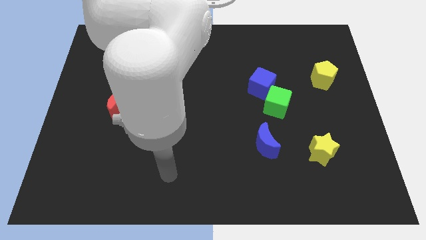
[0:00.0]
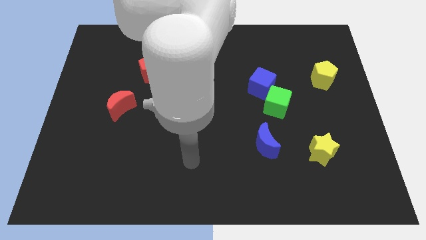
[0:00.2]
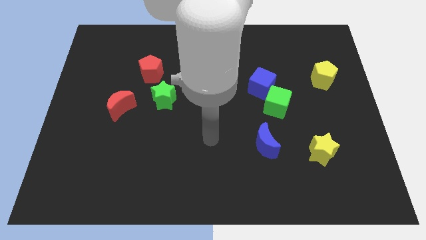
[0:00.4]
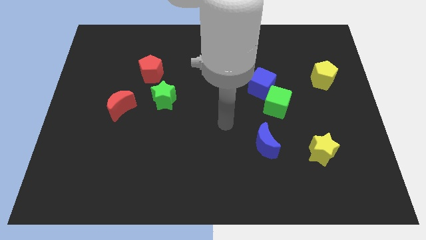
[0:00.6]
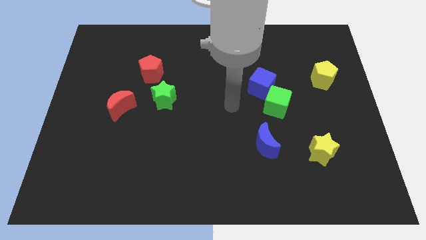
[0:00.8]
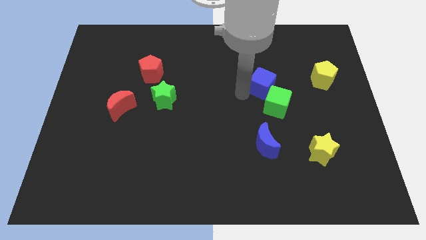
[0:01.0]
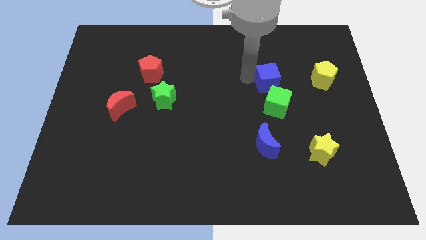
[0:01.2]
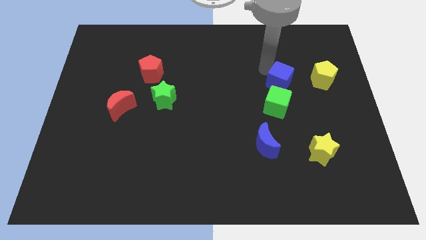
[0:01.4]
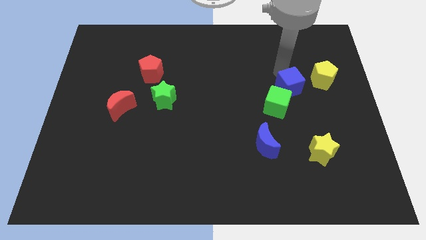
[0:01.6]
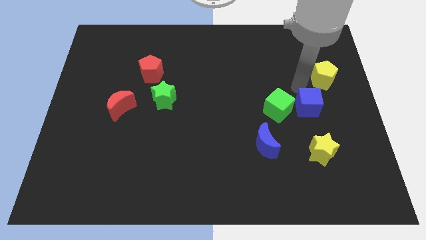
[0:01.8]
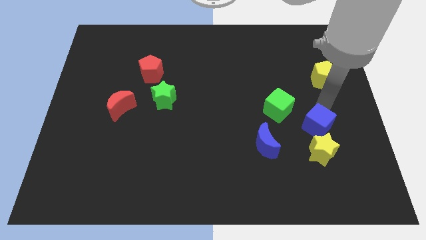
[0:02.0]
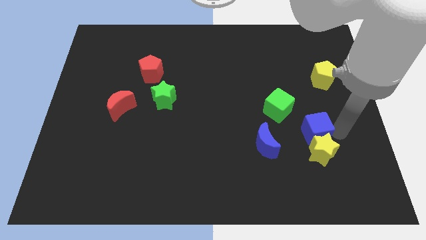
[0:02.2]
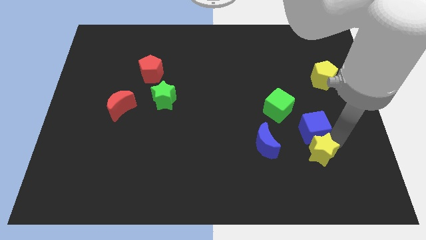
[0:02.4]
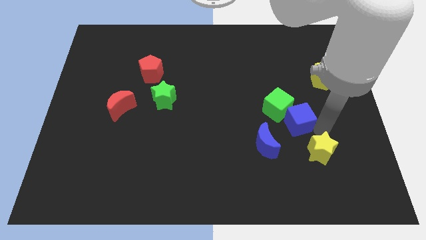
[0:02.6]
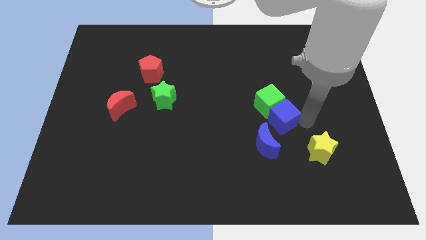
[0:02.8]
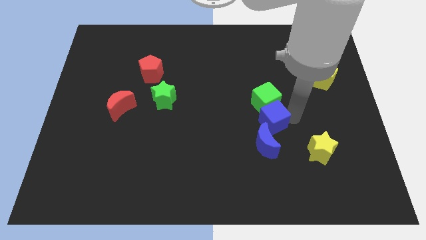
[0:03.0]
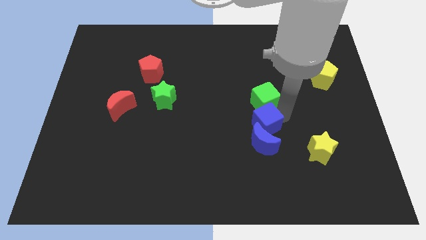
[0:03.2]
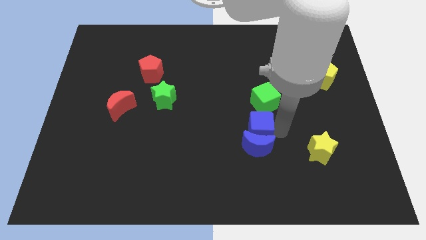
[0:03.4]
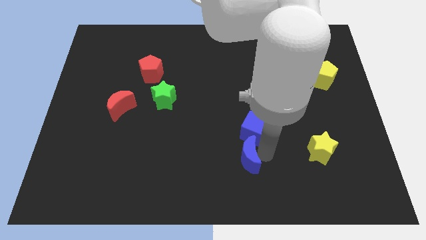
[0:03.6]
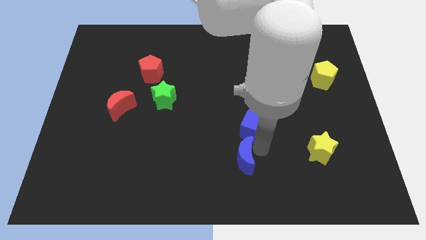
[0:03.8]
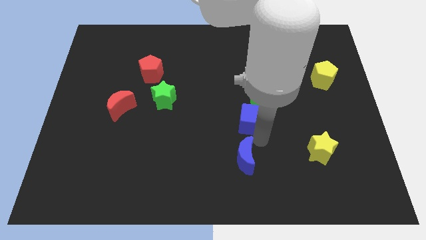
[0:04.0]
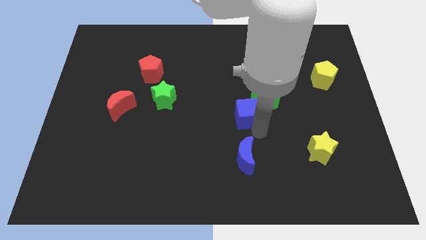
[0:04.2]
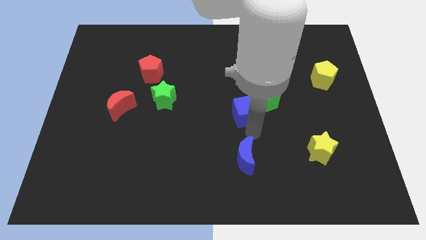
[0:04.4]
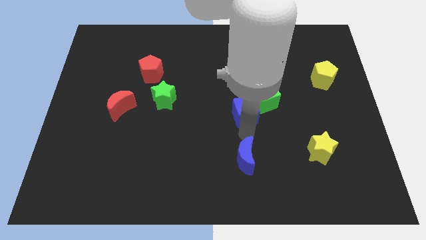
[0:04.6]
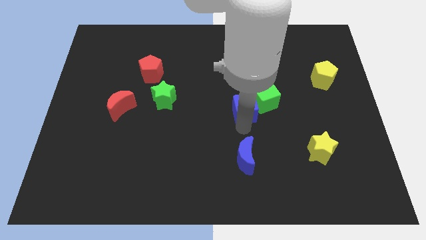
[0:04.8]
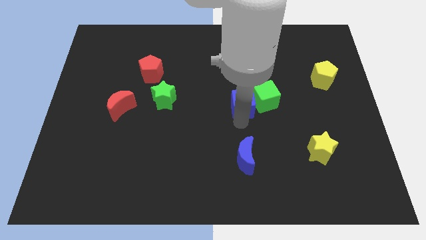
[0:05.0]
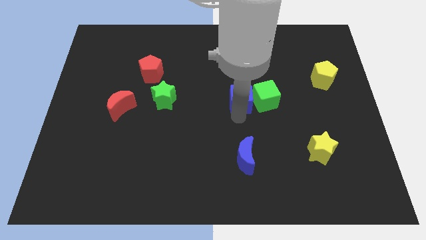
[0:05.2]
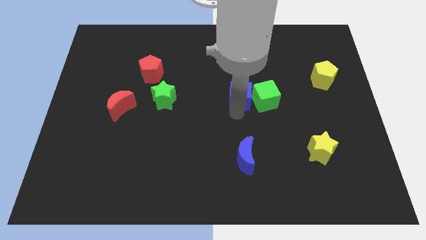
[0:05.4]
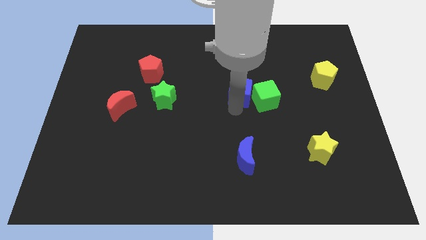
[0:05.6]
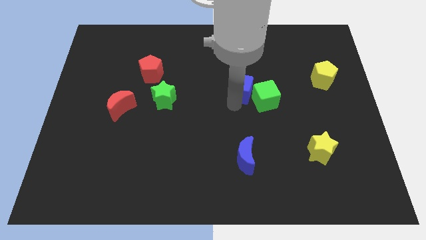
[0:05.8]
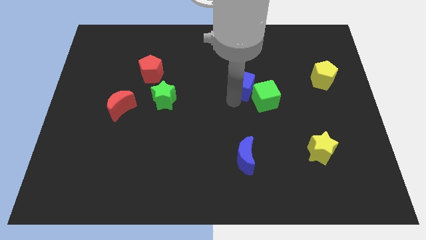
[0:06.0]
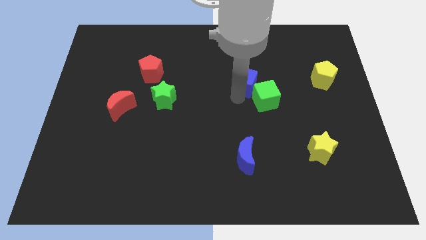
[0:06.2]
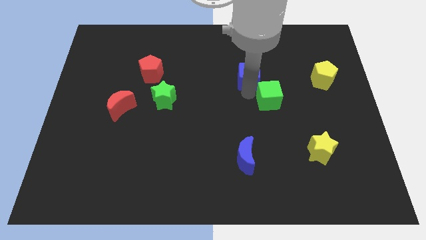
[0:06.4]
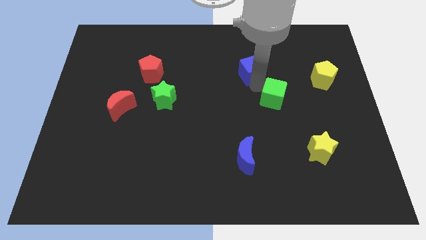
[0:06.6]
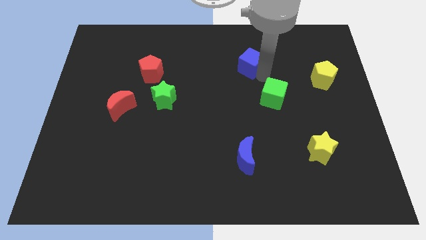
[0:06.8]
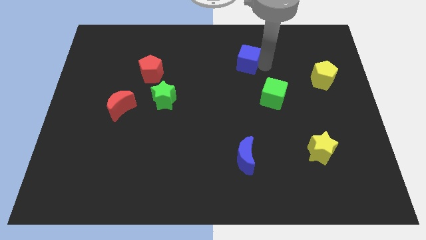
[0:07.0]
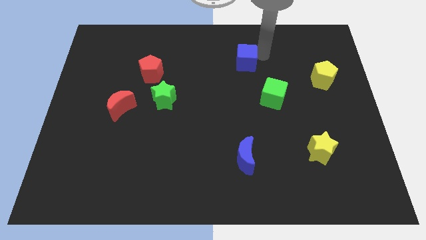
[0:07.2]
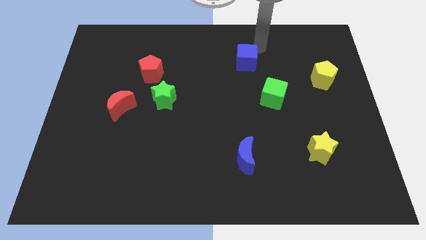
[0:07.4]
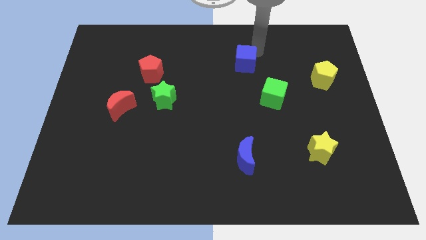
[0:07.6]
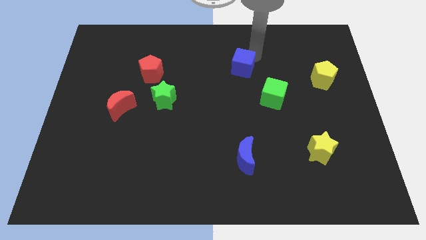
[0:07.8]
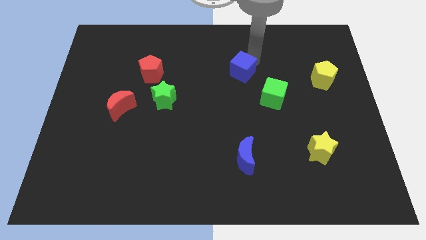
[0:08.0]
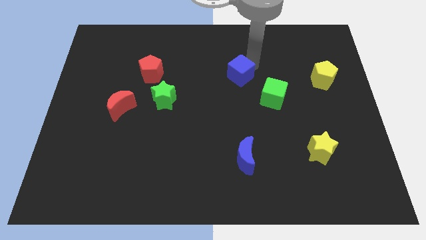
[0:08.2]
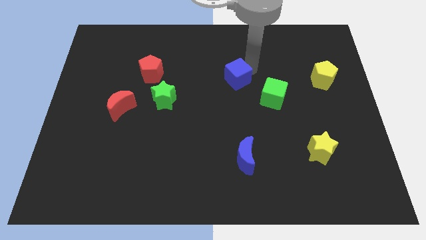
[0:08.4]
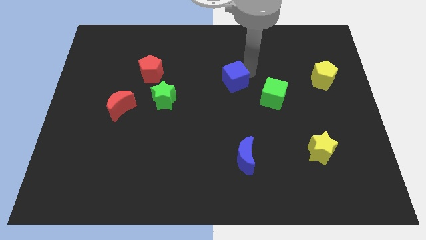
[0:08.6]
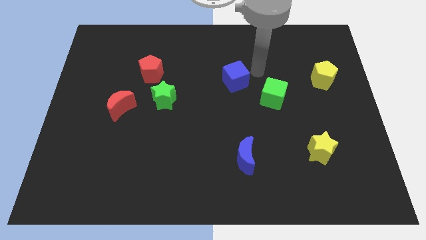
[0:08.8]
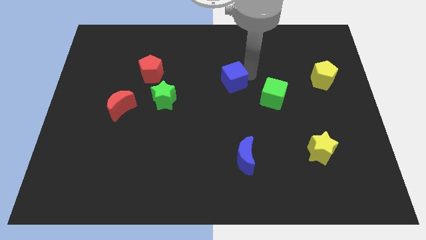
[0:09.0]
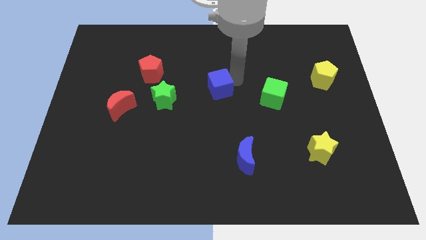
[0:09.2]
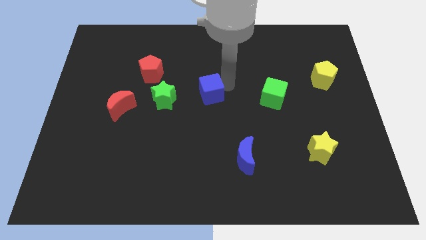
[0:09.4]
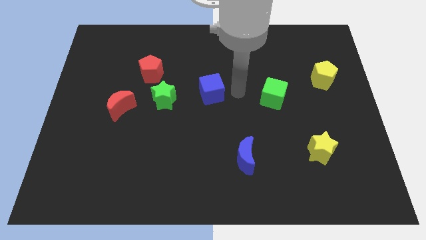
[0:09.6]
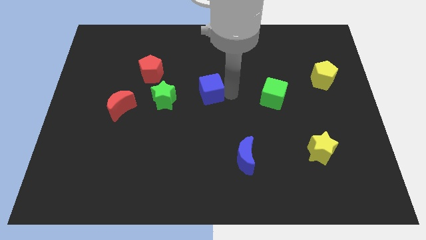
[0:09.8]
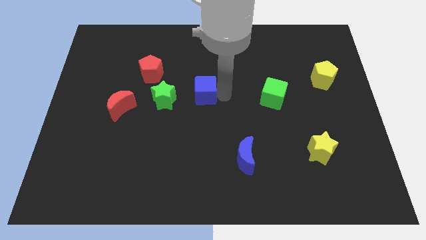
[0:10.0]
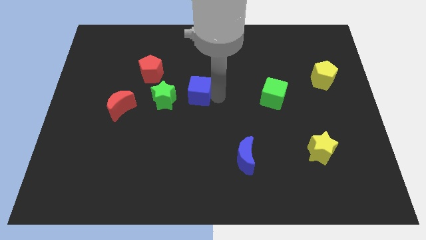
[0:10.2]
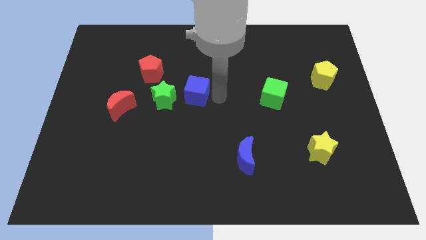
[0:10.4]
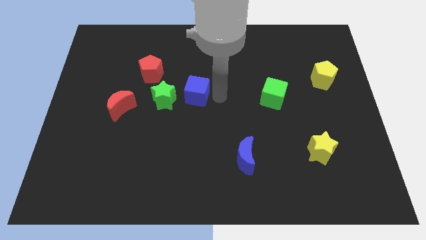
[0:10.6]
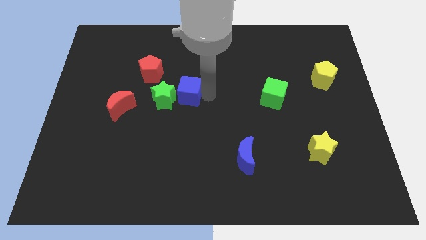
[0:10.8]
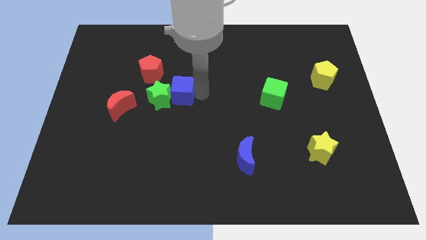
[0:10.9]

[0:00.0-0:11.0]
move the blue cube to the green star

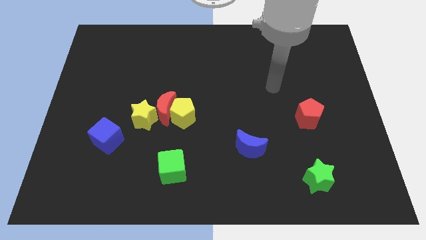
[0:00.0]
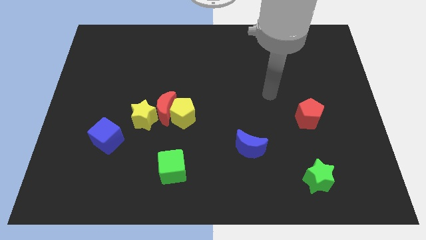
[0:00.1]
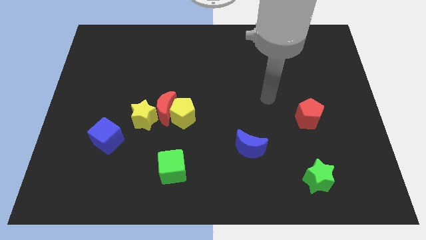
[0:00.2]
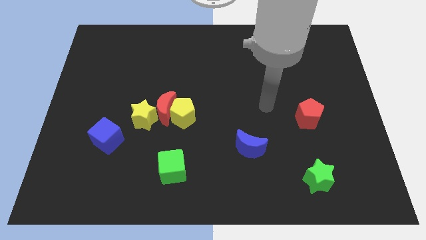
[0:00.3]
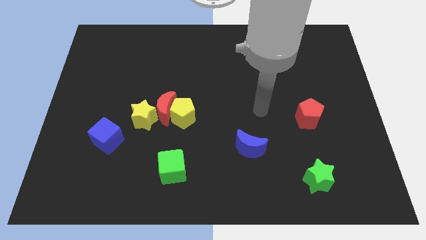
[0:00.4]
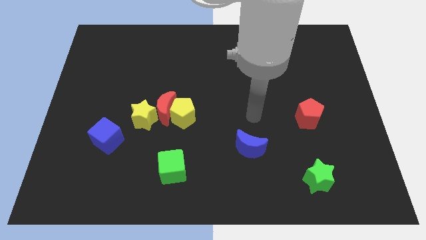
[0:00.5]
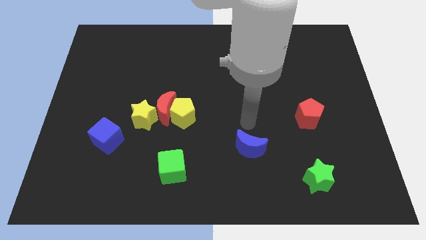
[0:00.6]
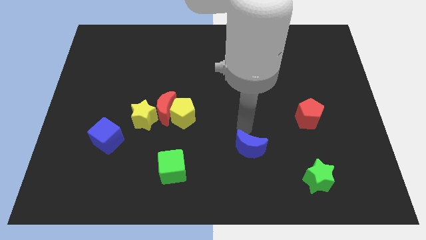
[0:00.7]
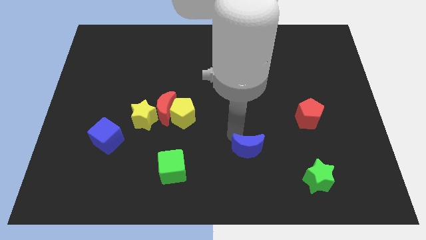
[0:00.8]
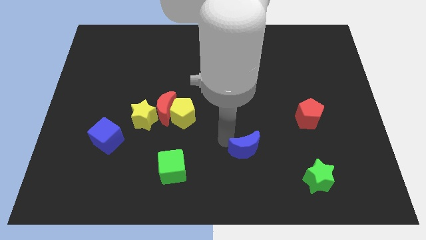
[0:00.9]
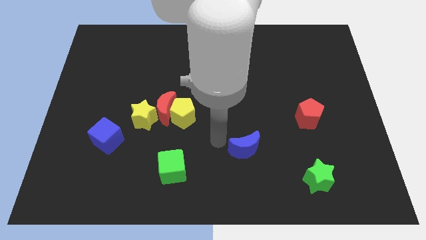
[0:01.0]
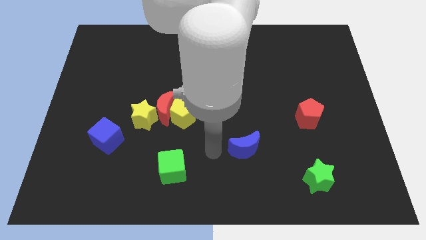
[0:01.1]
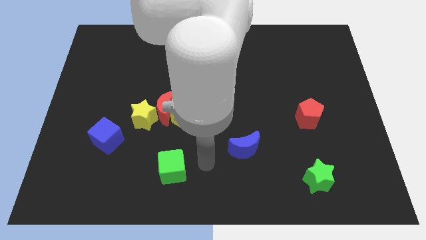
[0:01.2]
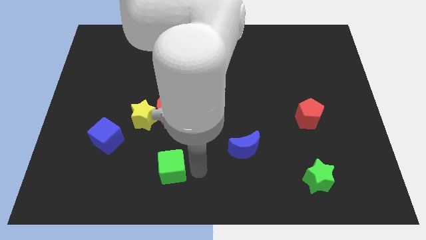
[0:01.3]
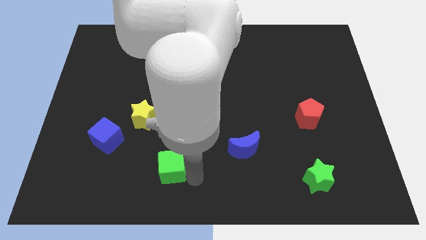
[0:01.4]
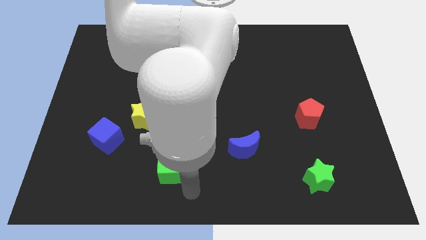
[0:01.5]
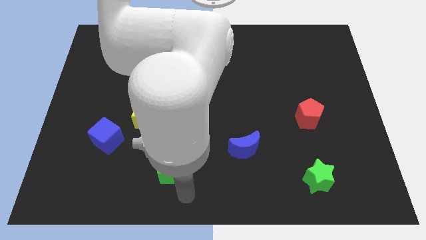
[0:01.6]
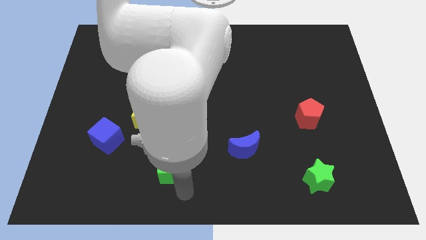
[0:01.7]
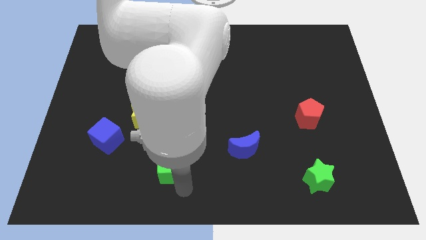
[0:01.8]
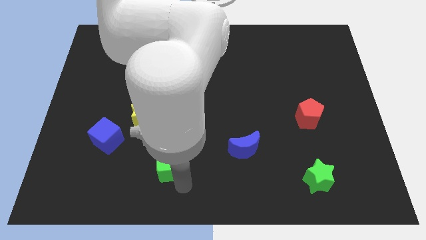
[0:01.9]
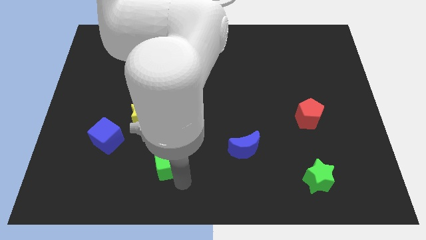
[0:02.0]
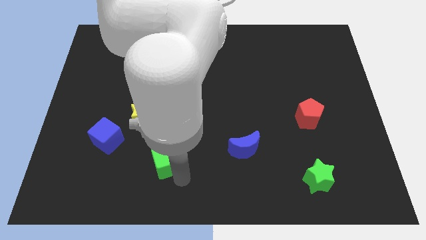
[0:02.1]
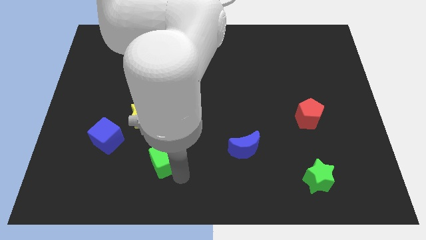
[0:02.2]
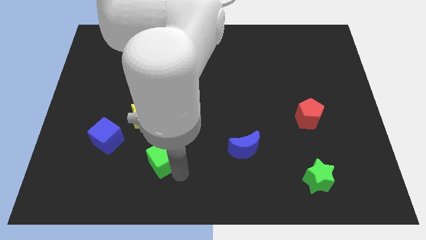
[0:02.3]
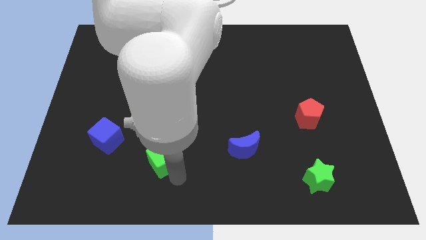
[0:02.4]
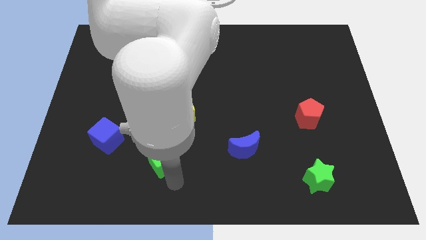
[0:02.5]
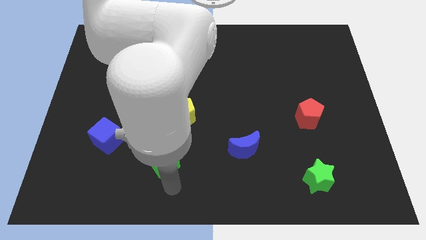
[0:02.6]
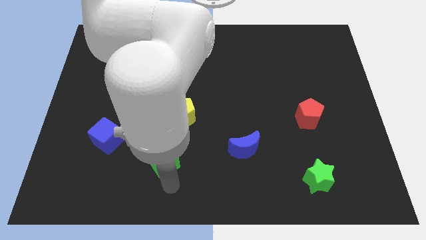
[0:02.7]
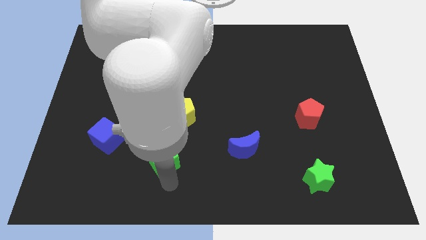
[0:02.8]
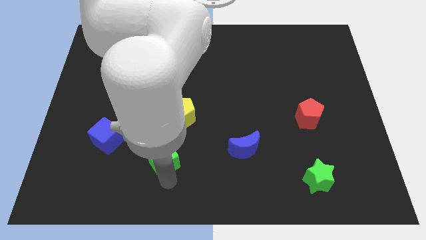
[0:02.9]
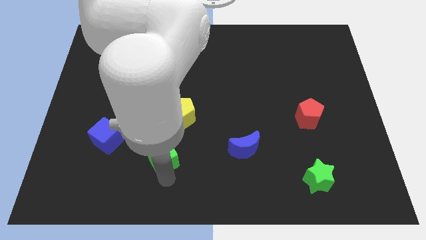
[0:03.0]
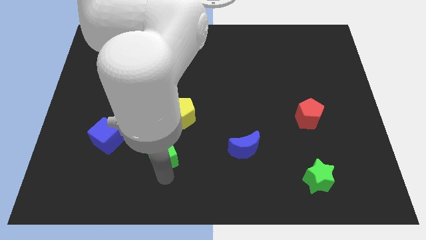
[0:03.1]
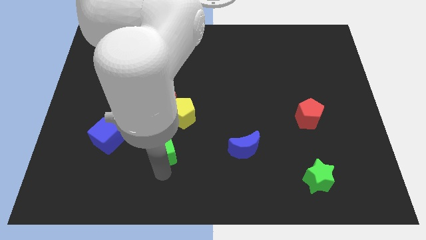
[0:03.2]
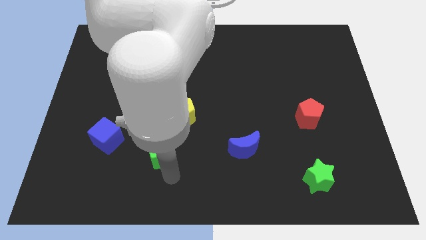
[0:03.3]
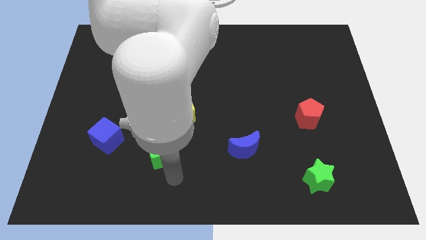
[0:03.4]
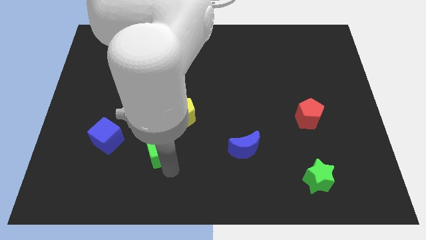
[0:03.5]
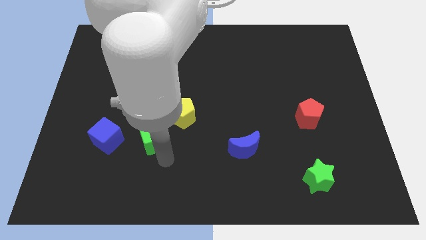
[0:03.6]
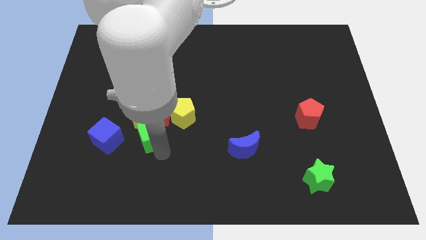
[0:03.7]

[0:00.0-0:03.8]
put the green cube to the yellow star
